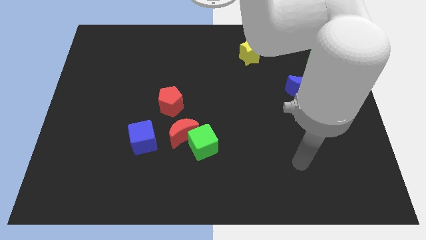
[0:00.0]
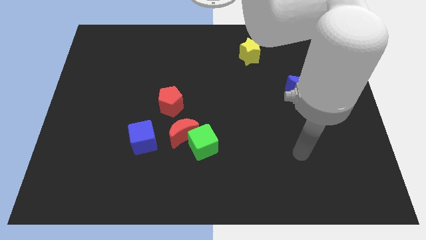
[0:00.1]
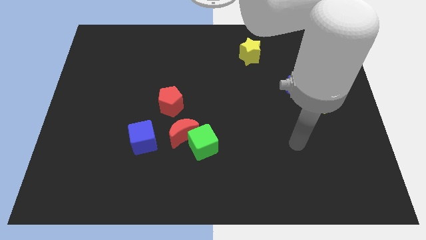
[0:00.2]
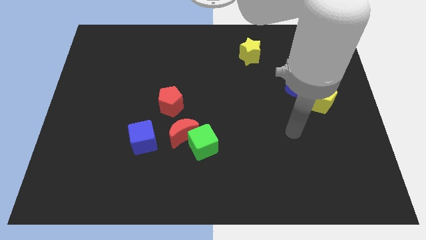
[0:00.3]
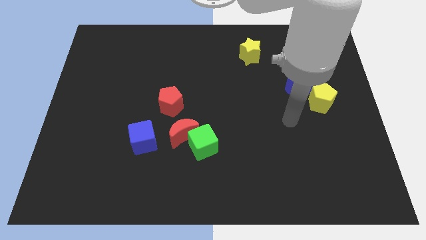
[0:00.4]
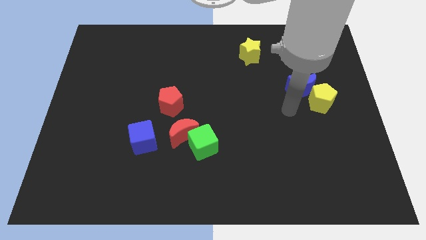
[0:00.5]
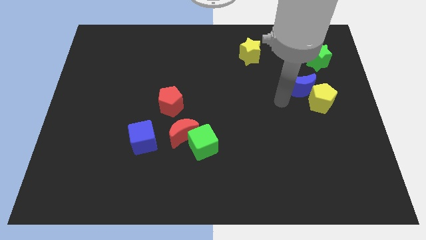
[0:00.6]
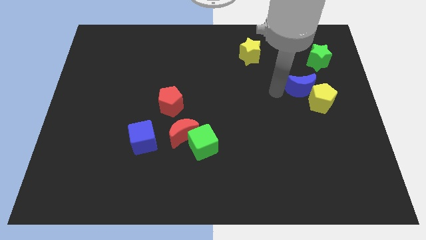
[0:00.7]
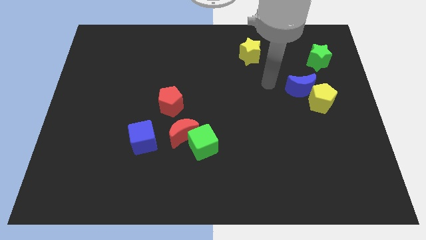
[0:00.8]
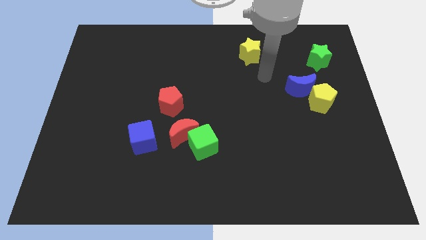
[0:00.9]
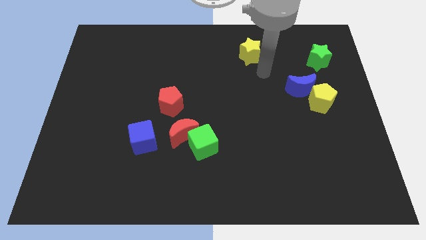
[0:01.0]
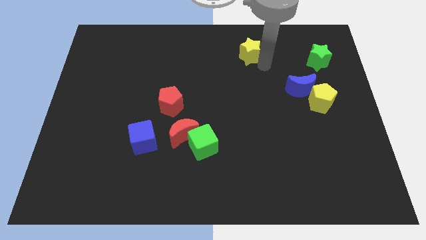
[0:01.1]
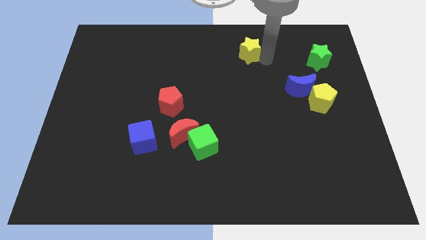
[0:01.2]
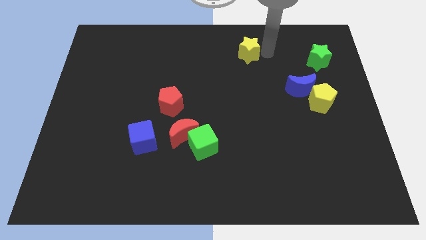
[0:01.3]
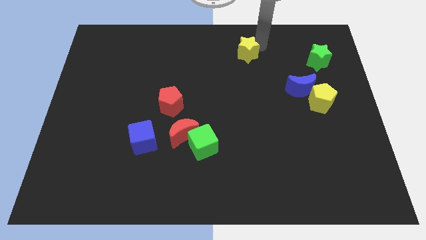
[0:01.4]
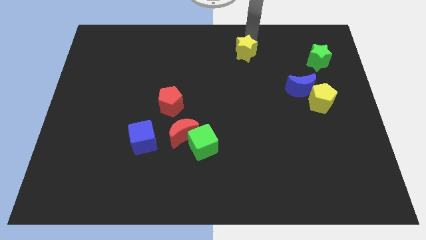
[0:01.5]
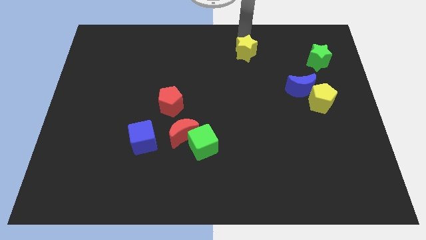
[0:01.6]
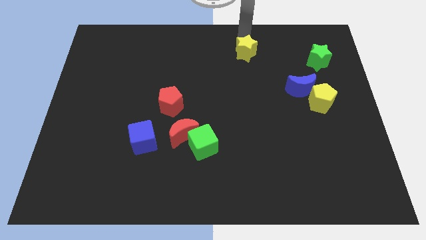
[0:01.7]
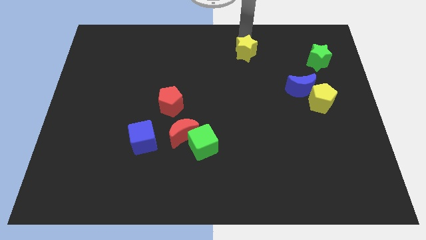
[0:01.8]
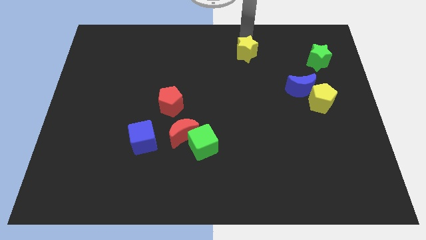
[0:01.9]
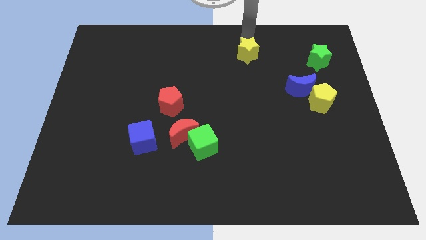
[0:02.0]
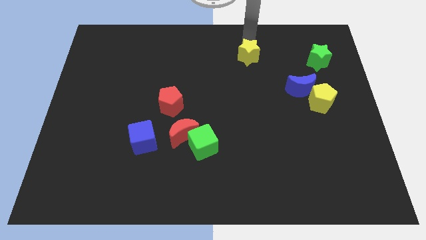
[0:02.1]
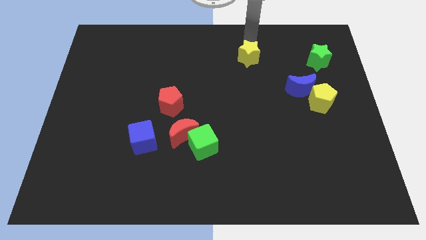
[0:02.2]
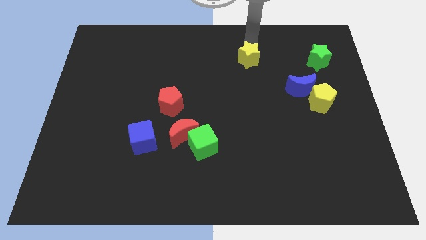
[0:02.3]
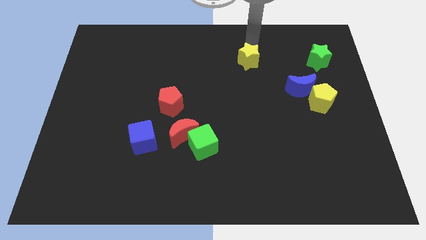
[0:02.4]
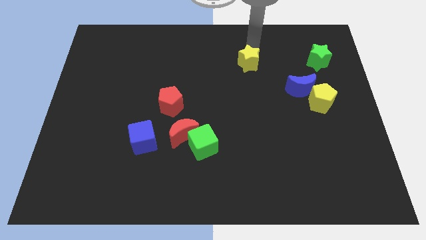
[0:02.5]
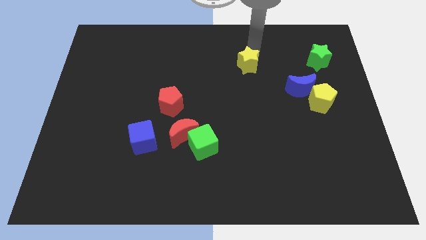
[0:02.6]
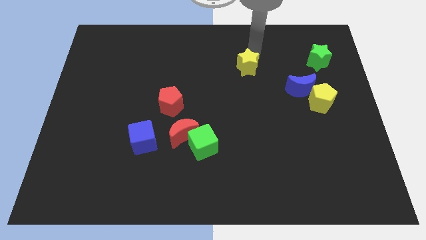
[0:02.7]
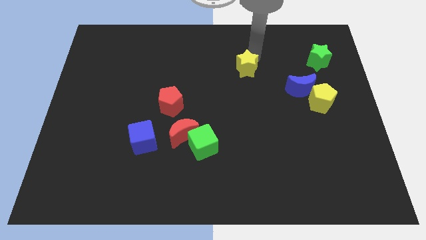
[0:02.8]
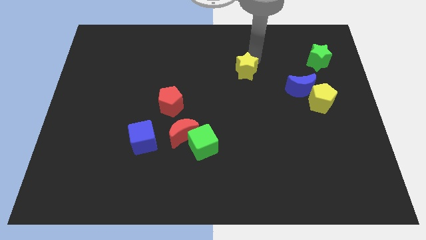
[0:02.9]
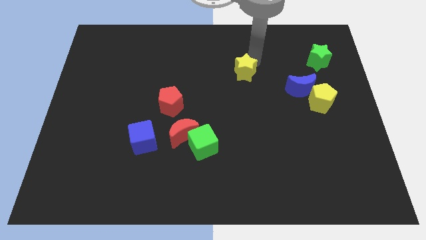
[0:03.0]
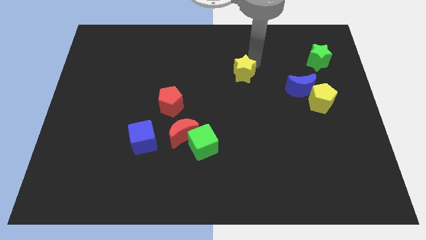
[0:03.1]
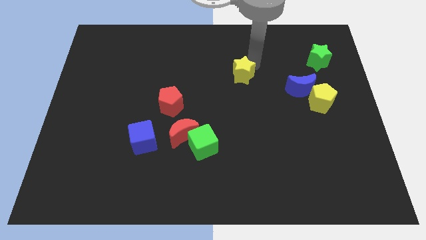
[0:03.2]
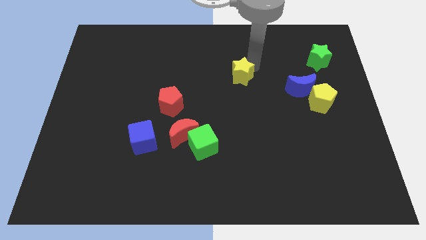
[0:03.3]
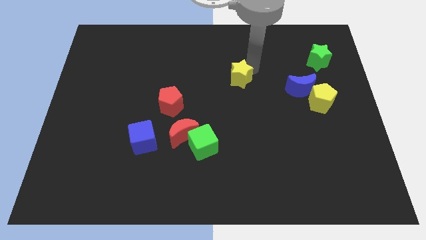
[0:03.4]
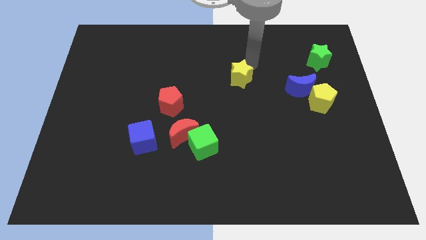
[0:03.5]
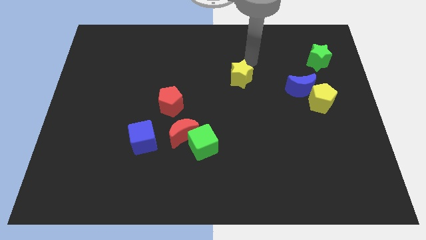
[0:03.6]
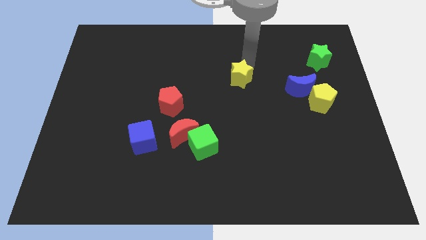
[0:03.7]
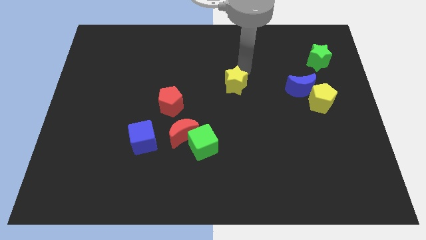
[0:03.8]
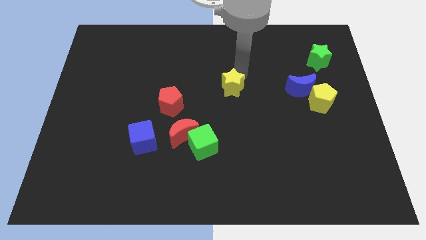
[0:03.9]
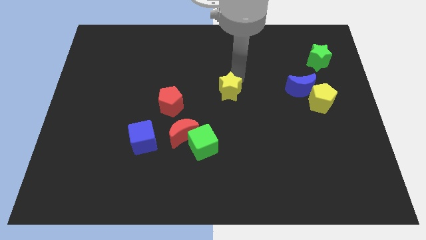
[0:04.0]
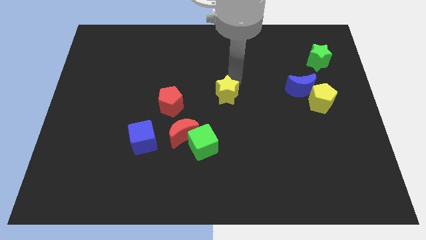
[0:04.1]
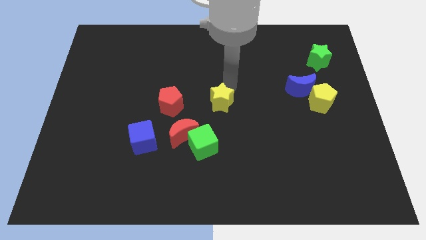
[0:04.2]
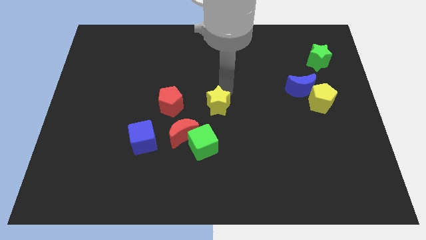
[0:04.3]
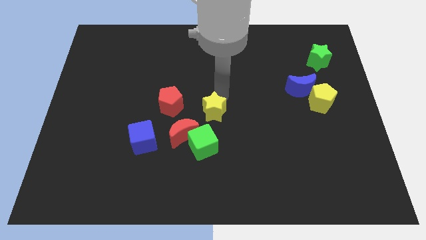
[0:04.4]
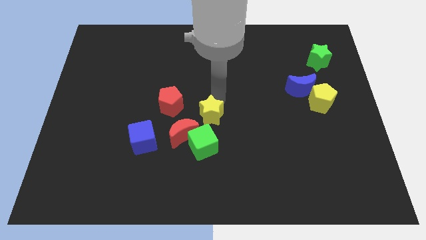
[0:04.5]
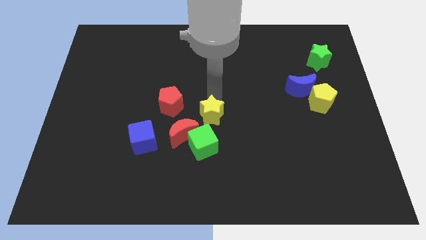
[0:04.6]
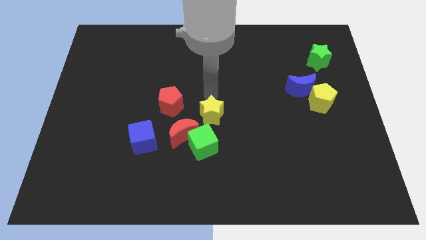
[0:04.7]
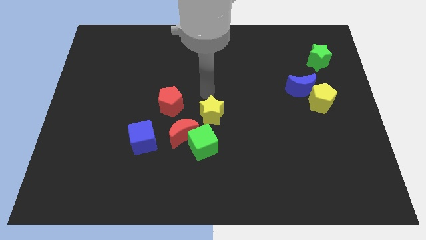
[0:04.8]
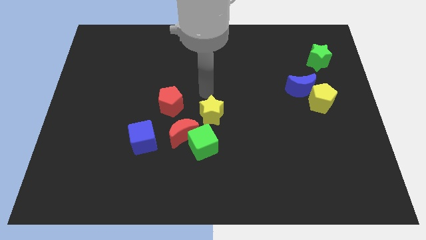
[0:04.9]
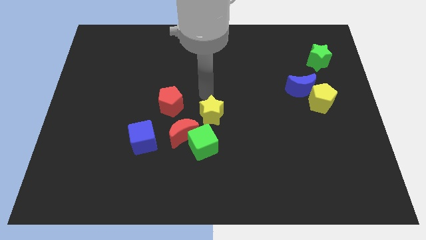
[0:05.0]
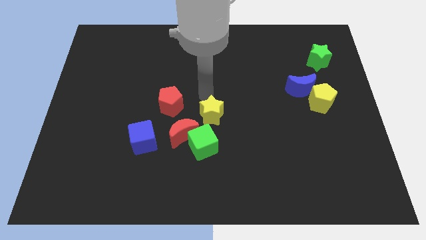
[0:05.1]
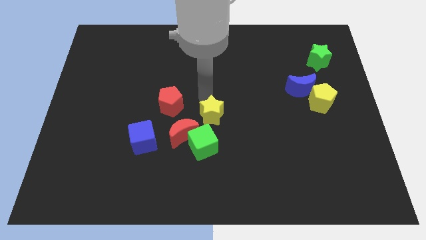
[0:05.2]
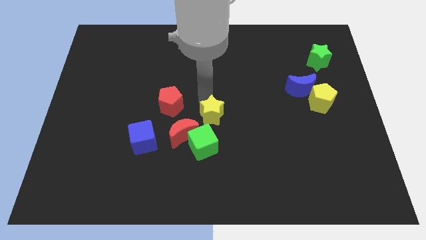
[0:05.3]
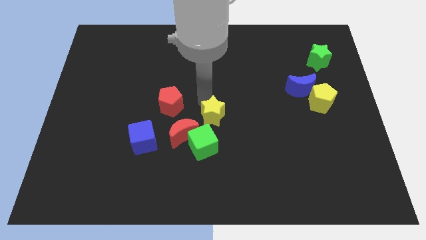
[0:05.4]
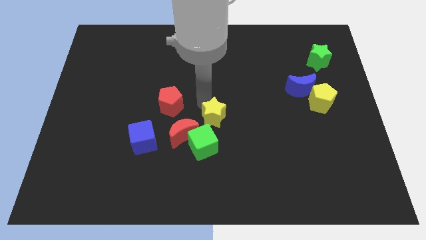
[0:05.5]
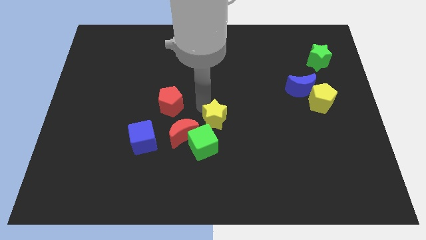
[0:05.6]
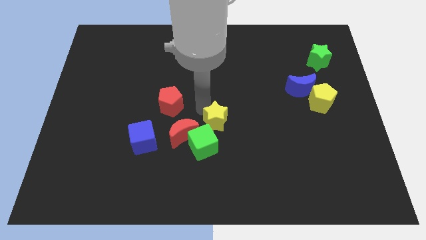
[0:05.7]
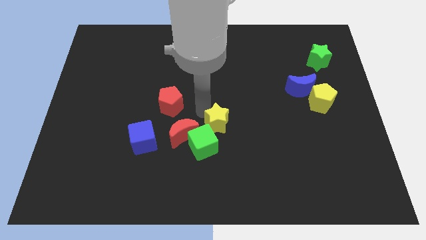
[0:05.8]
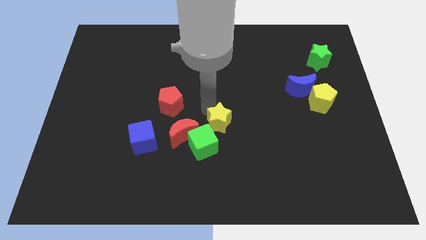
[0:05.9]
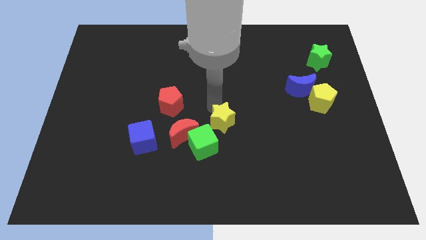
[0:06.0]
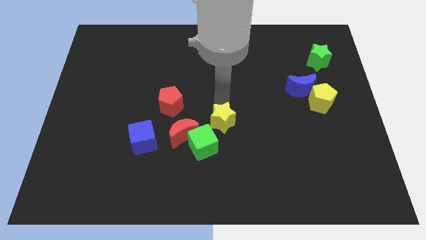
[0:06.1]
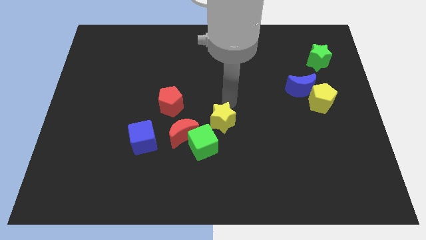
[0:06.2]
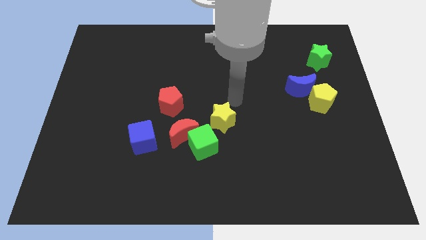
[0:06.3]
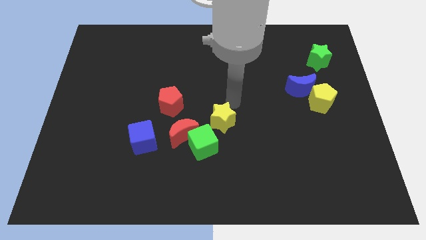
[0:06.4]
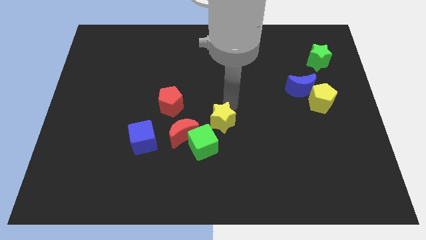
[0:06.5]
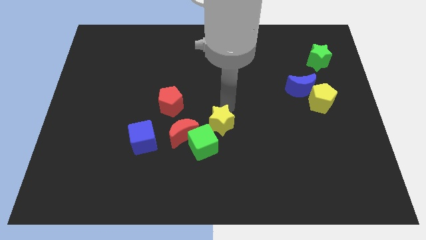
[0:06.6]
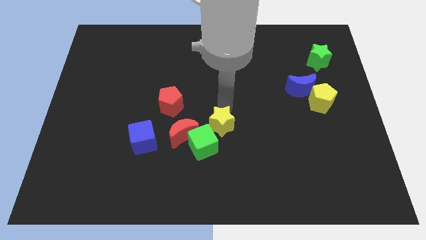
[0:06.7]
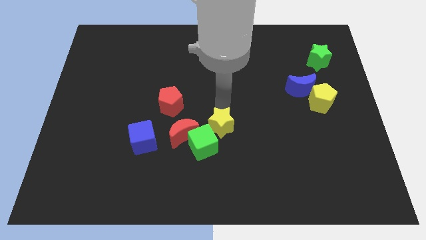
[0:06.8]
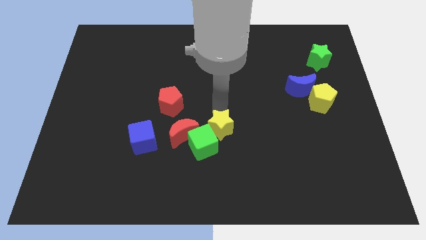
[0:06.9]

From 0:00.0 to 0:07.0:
put the yellow star to the green cube
